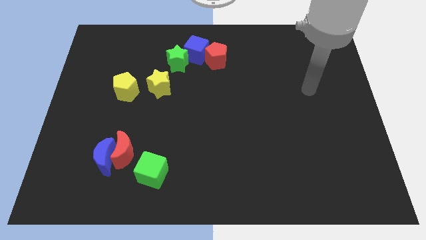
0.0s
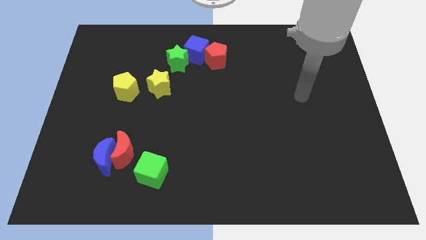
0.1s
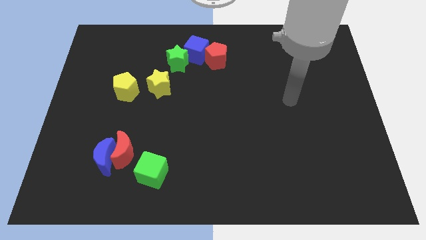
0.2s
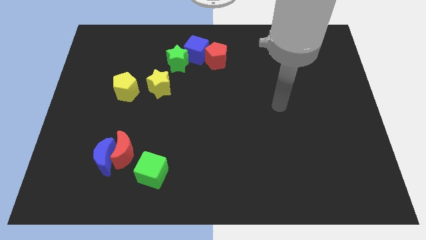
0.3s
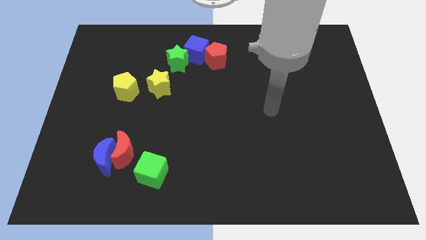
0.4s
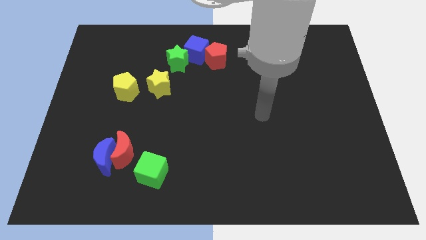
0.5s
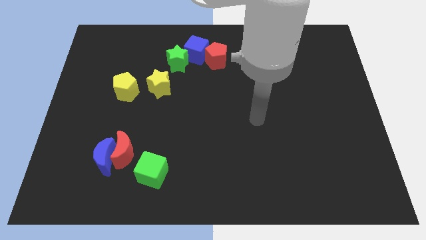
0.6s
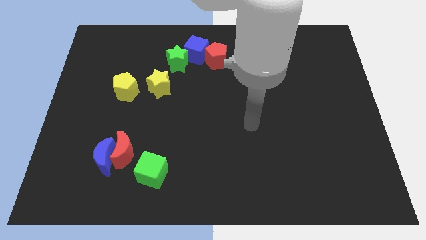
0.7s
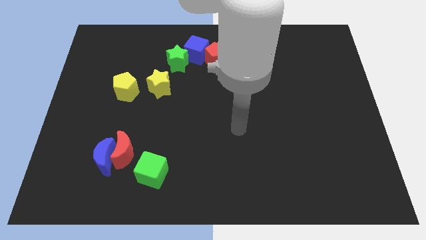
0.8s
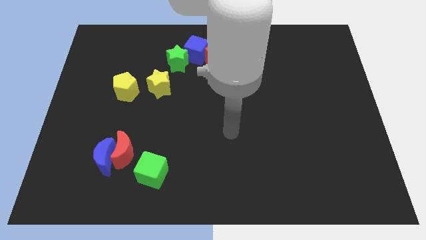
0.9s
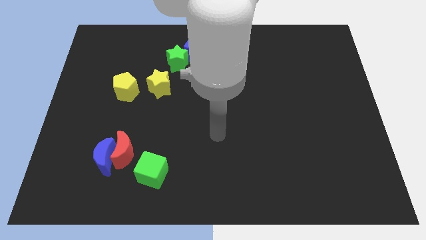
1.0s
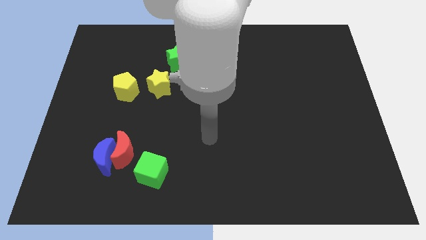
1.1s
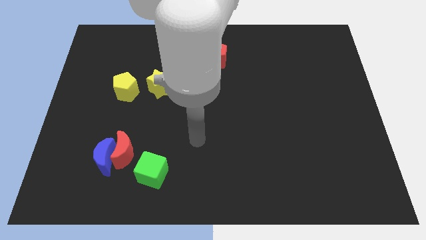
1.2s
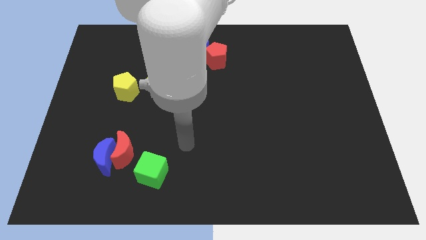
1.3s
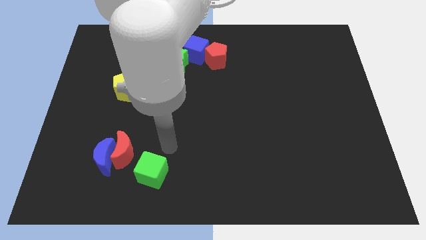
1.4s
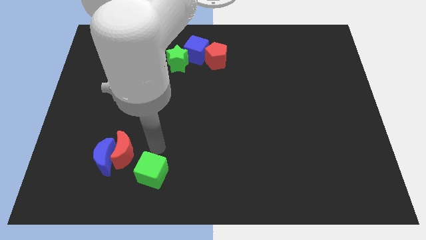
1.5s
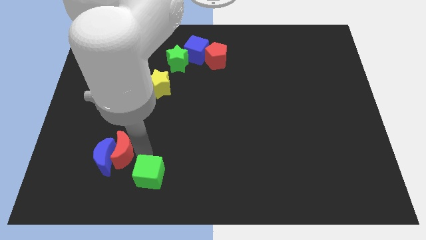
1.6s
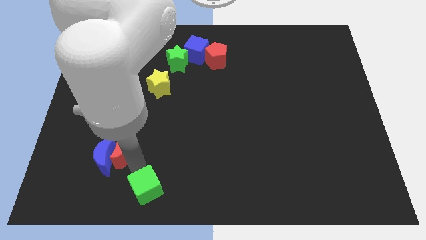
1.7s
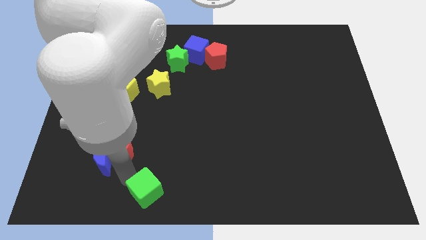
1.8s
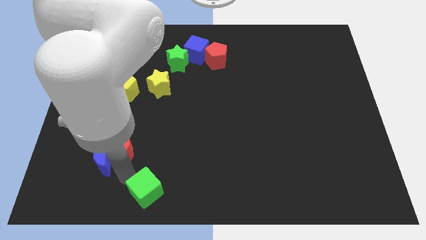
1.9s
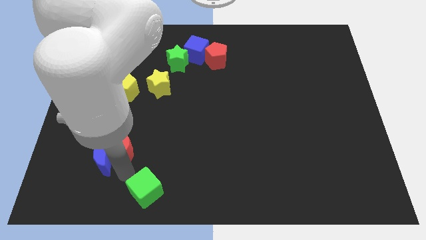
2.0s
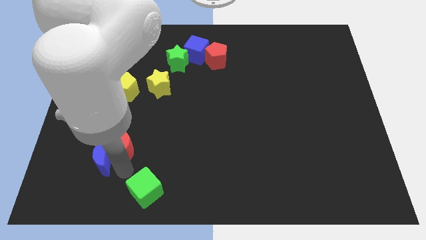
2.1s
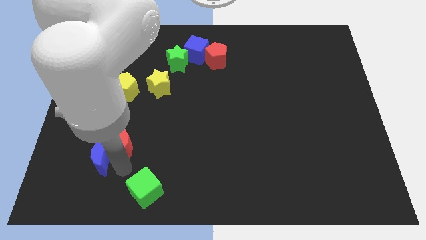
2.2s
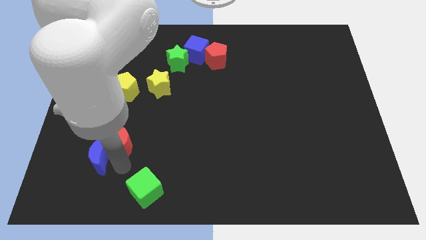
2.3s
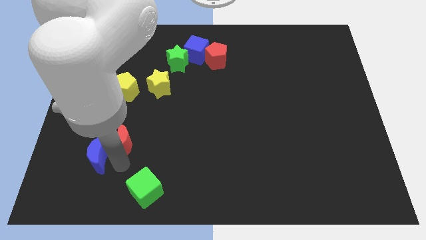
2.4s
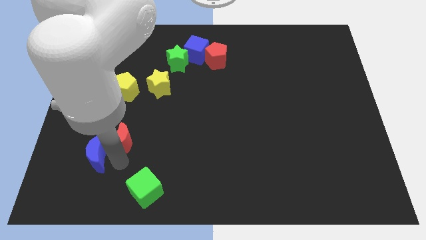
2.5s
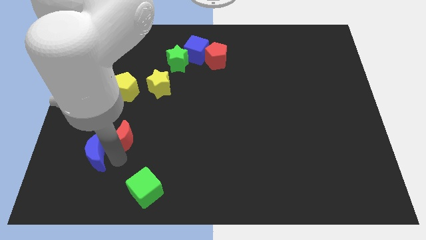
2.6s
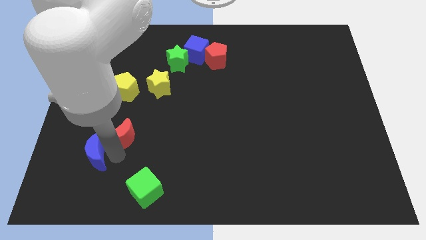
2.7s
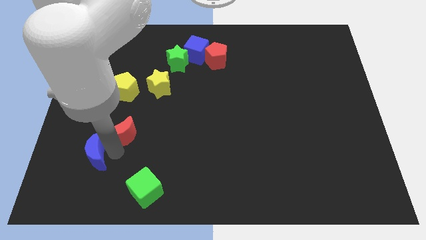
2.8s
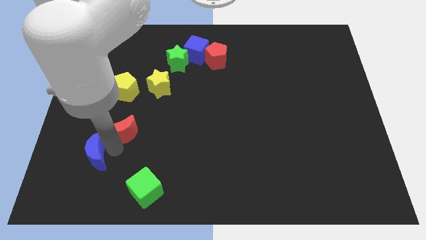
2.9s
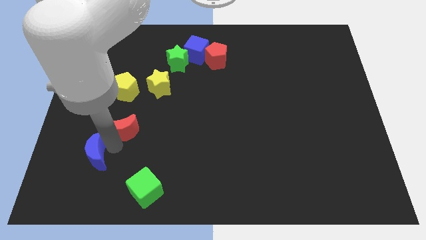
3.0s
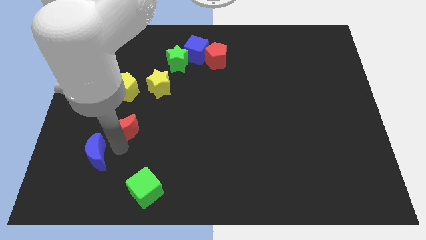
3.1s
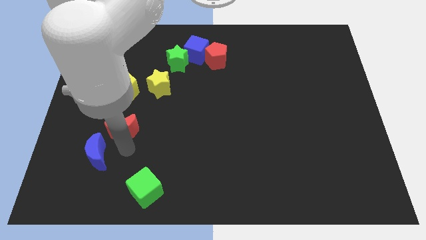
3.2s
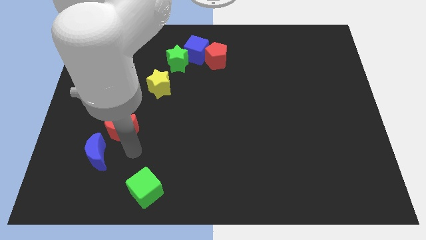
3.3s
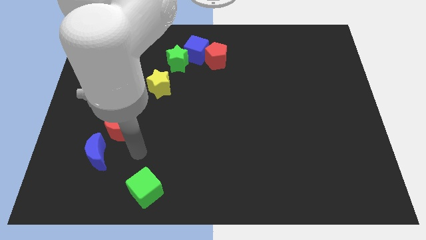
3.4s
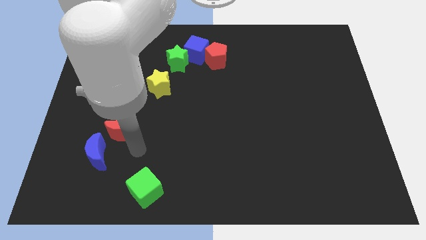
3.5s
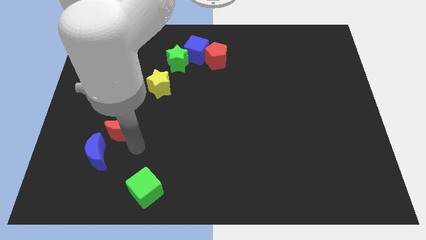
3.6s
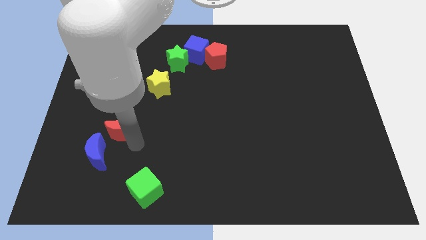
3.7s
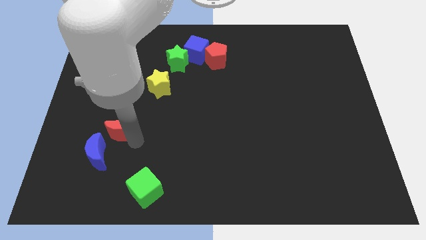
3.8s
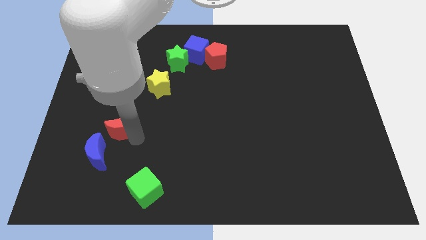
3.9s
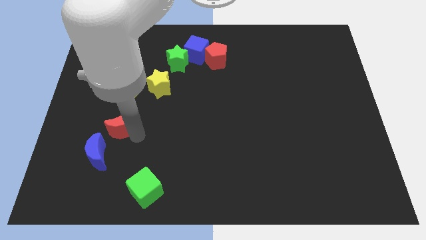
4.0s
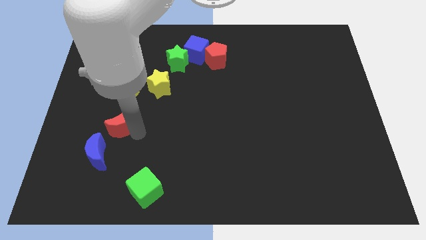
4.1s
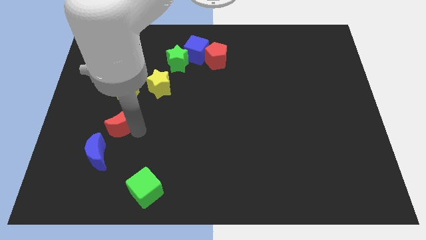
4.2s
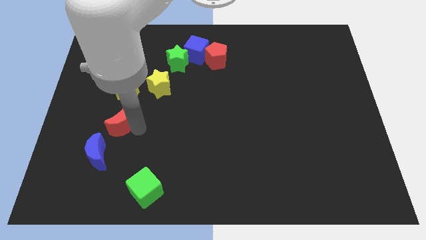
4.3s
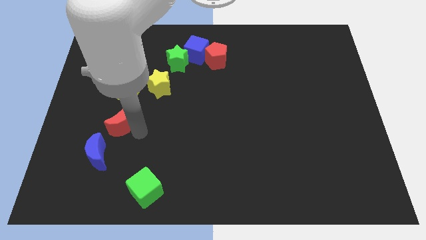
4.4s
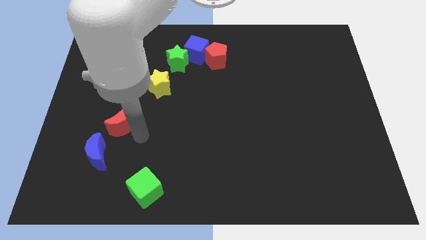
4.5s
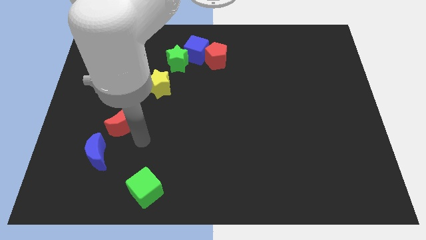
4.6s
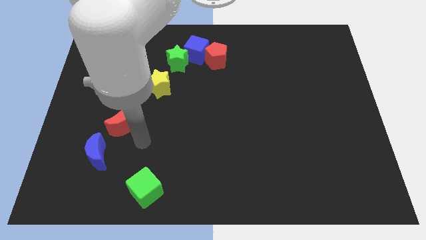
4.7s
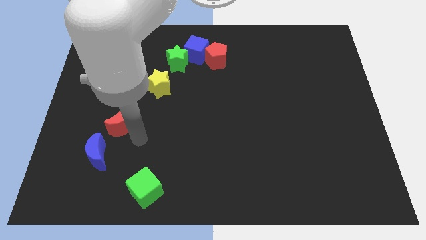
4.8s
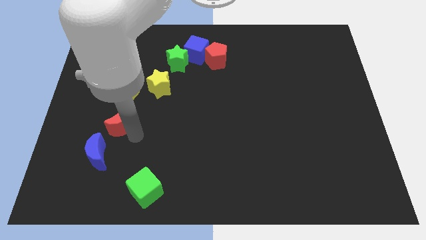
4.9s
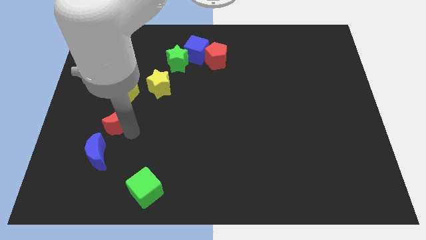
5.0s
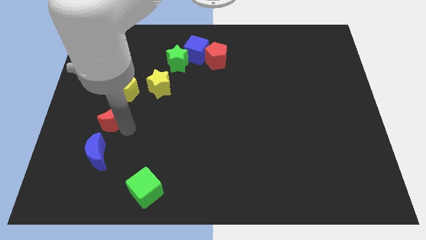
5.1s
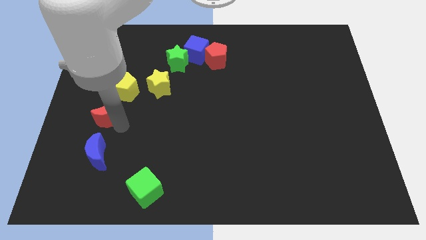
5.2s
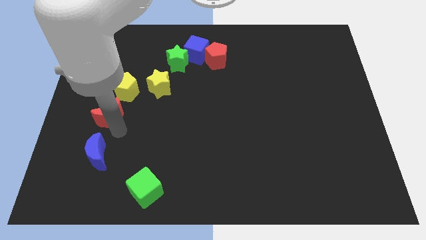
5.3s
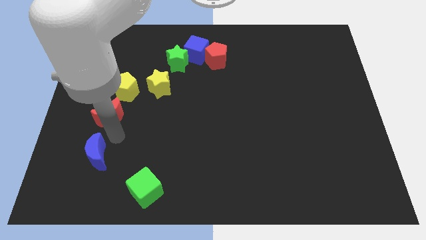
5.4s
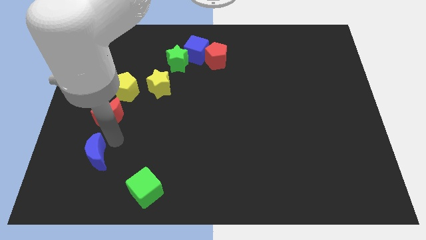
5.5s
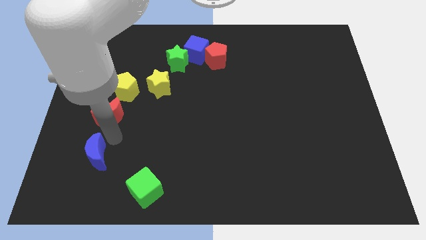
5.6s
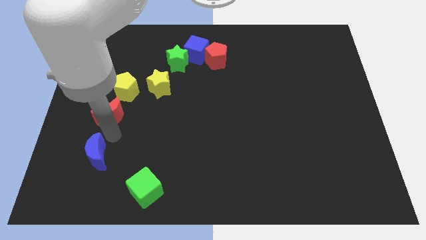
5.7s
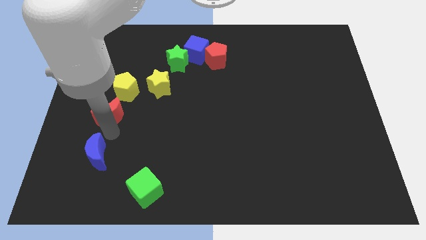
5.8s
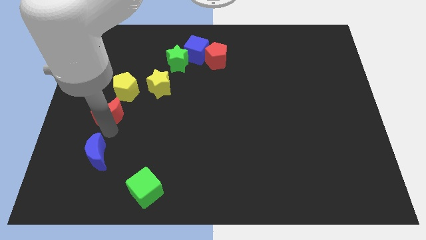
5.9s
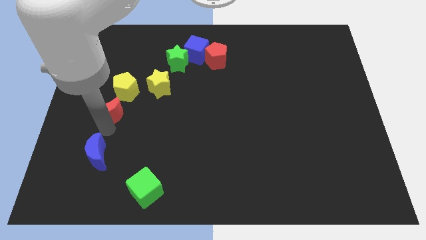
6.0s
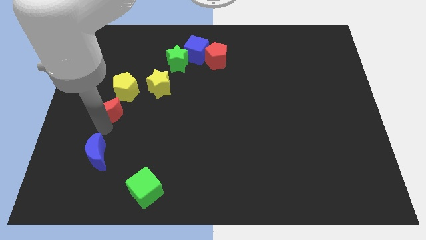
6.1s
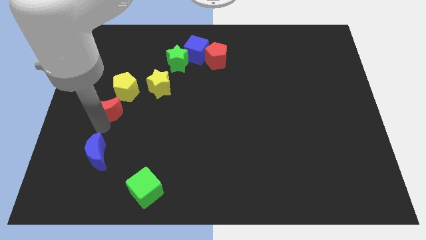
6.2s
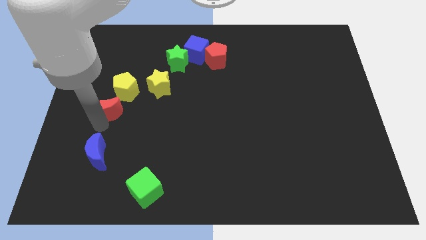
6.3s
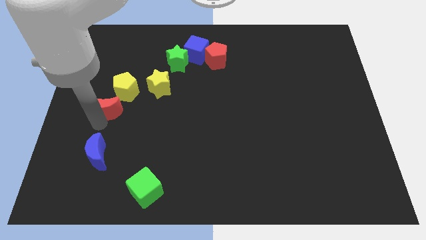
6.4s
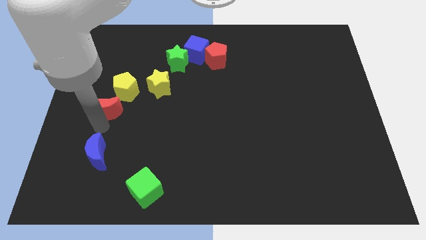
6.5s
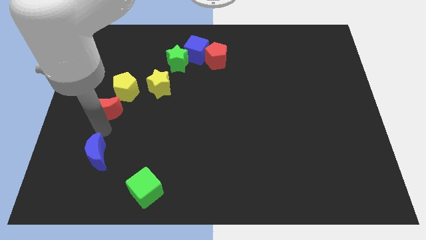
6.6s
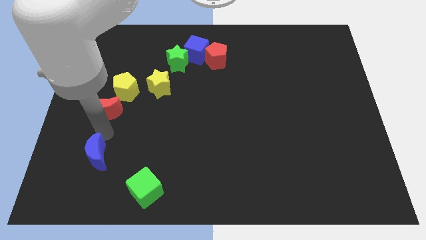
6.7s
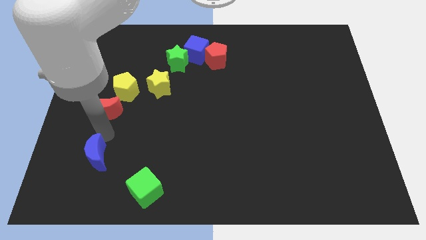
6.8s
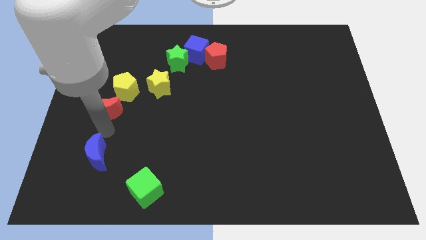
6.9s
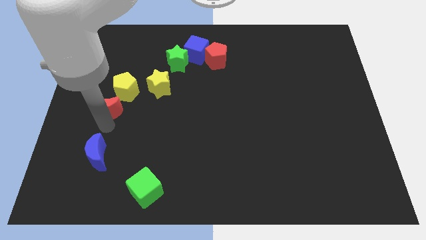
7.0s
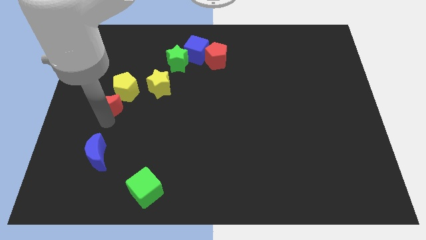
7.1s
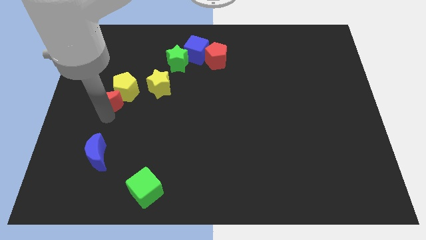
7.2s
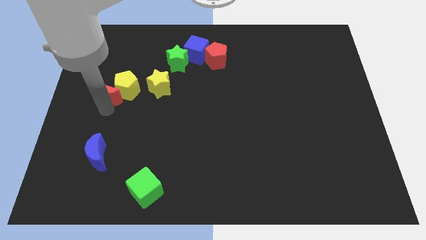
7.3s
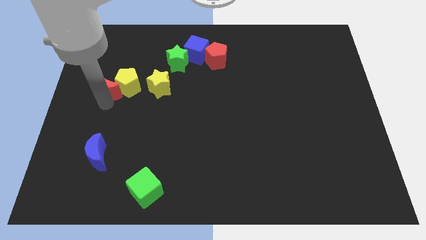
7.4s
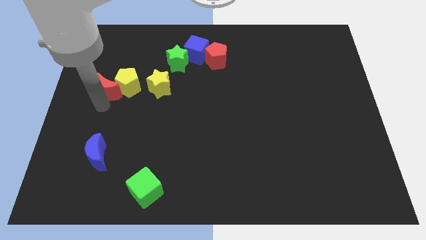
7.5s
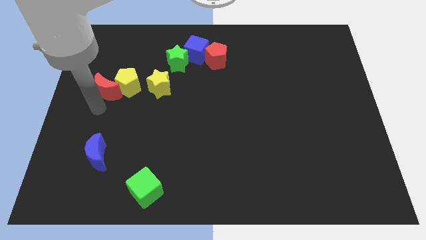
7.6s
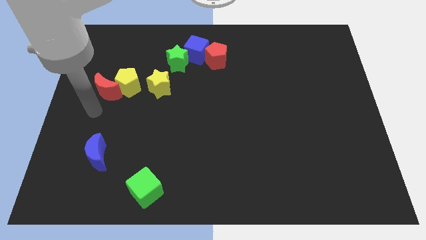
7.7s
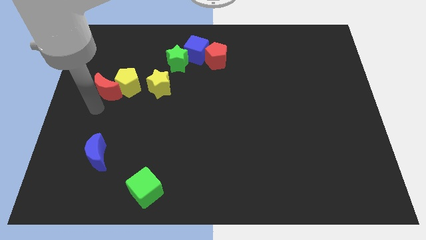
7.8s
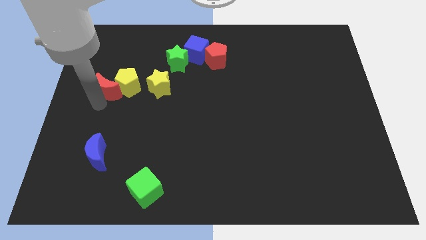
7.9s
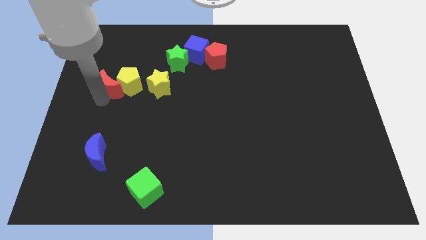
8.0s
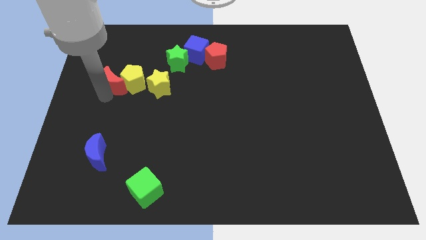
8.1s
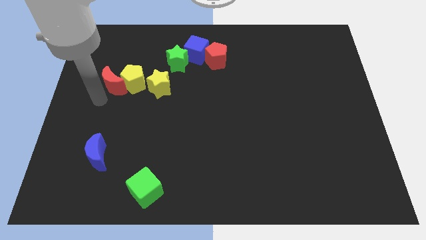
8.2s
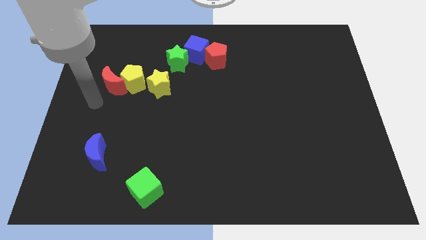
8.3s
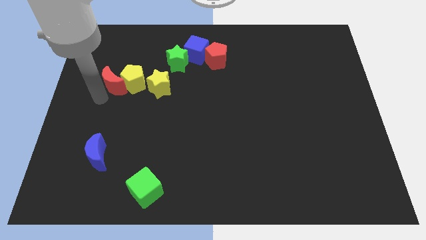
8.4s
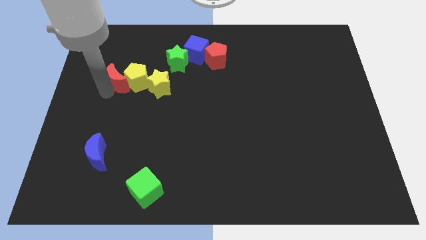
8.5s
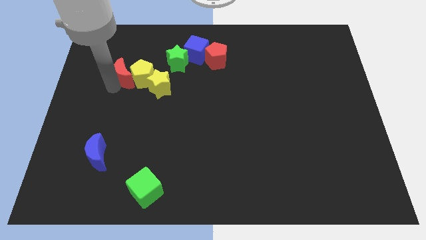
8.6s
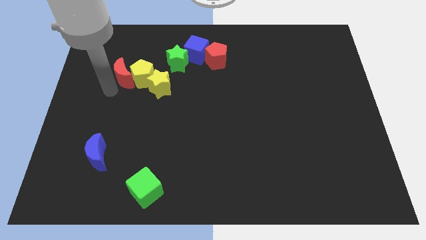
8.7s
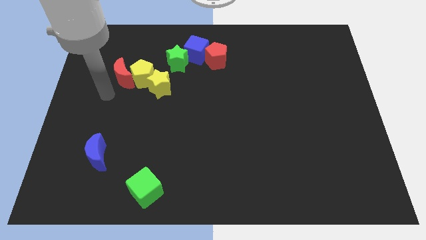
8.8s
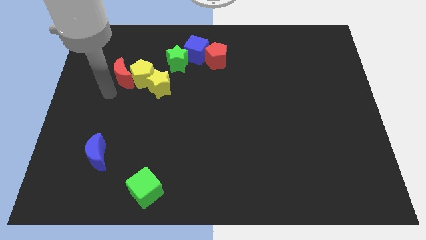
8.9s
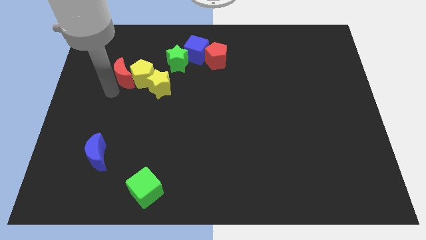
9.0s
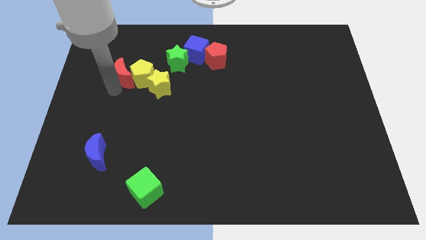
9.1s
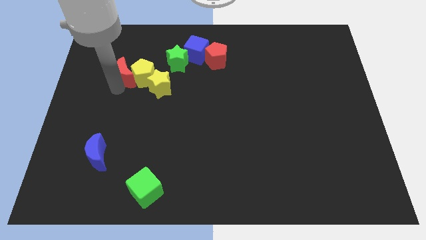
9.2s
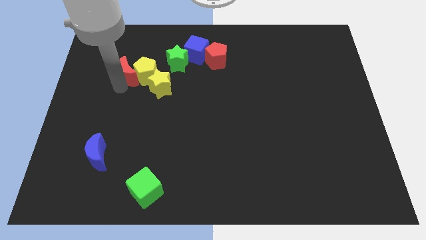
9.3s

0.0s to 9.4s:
slide the red moon just left of the green star
